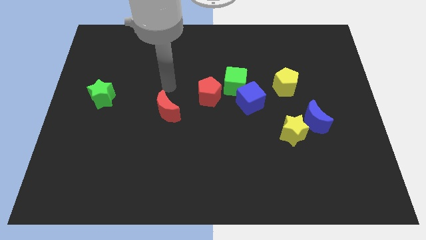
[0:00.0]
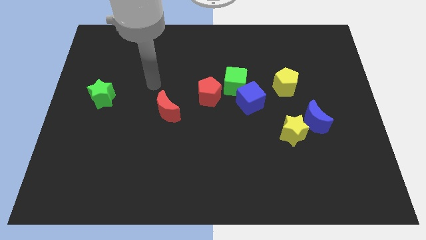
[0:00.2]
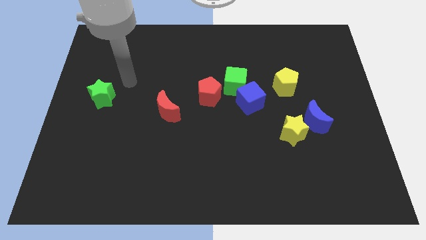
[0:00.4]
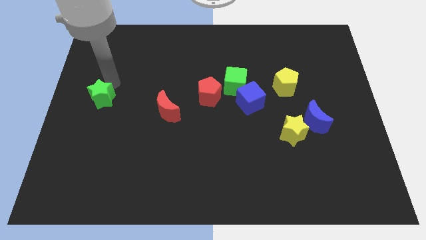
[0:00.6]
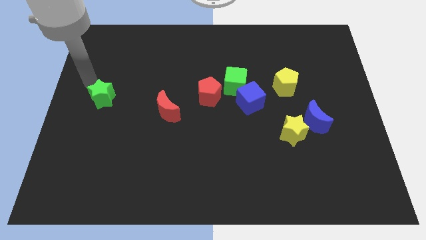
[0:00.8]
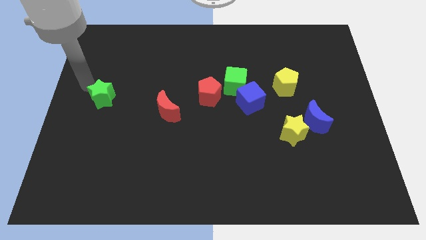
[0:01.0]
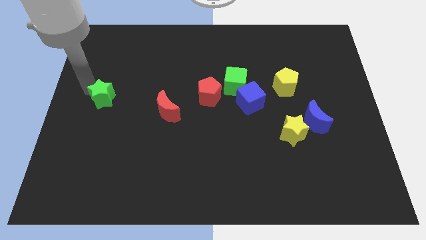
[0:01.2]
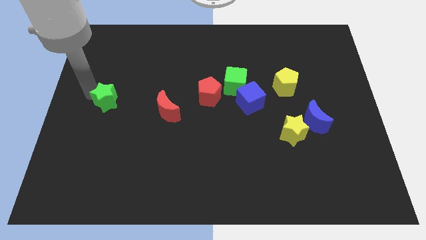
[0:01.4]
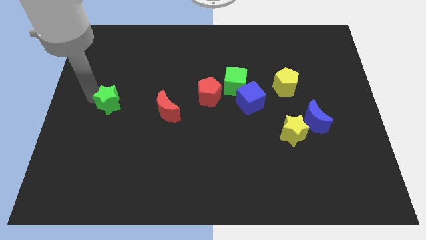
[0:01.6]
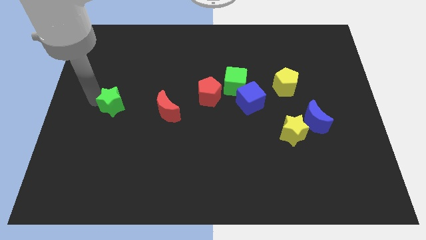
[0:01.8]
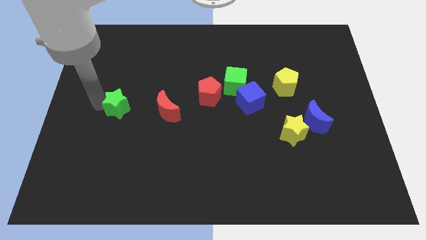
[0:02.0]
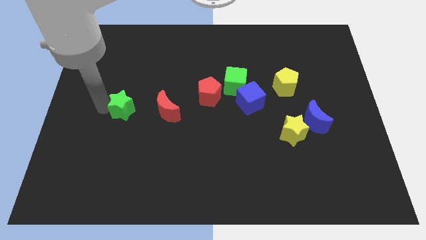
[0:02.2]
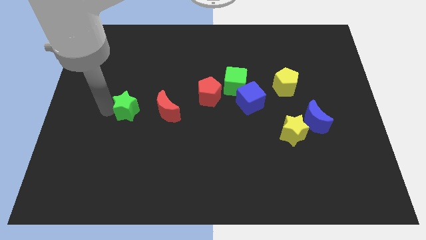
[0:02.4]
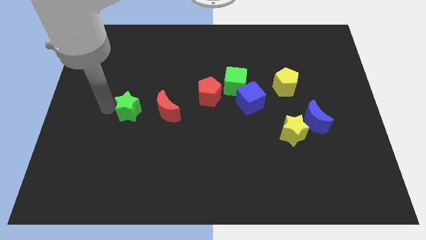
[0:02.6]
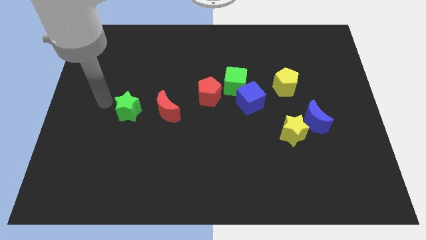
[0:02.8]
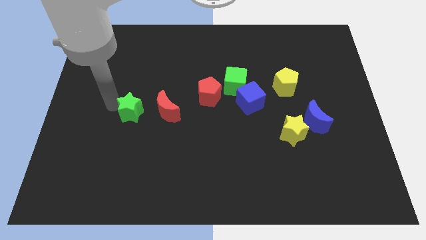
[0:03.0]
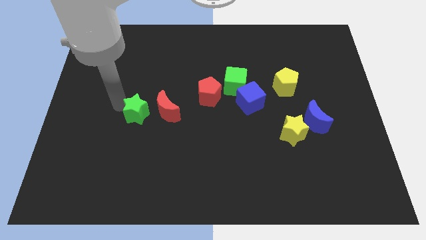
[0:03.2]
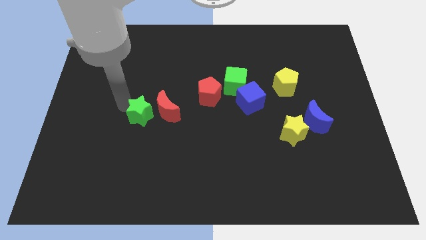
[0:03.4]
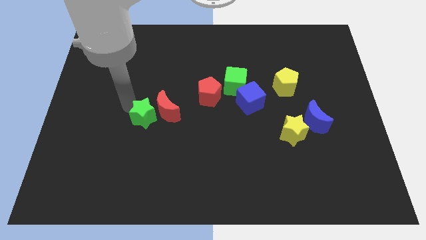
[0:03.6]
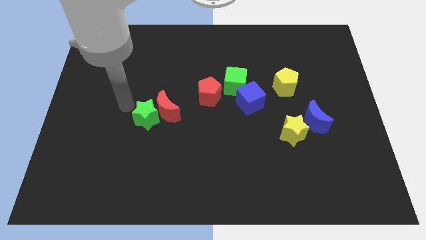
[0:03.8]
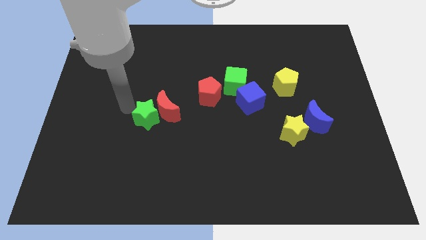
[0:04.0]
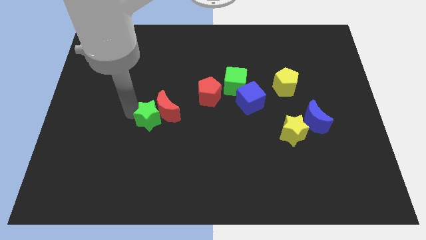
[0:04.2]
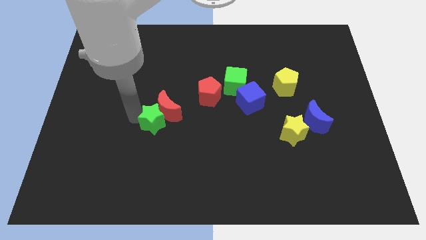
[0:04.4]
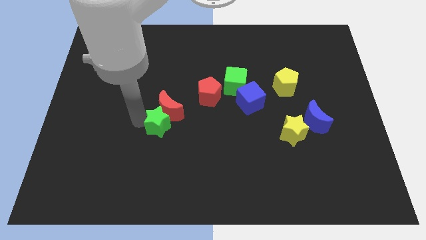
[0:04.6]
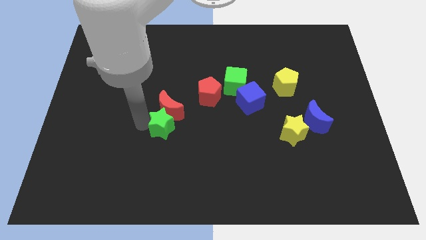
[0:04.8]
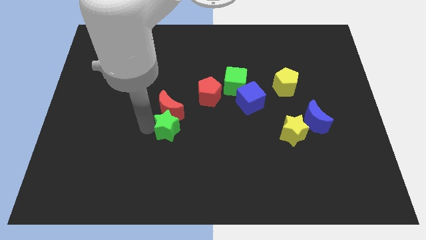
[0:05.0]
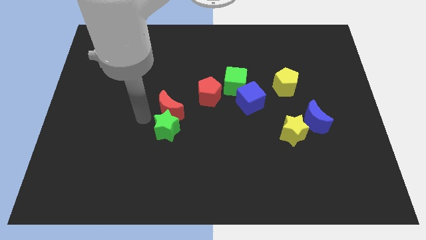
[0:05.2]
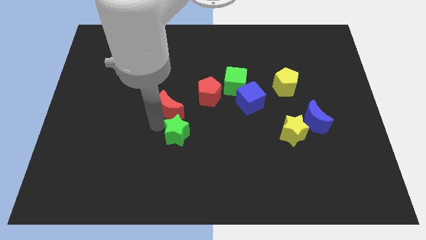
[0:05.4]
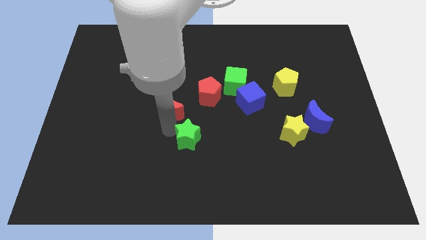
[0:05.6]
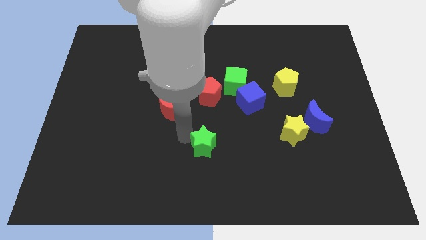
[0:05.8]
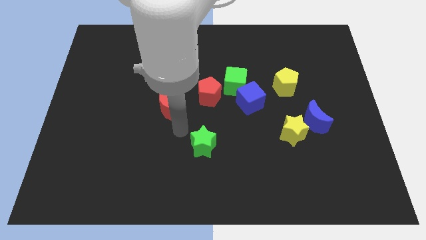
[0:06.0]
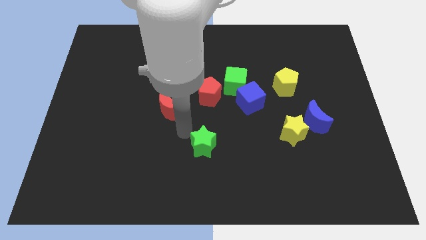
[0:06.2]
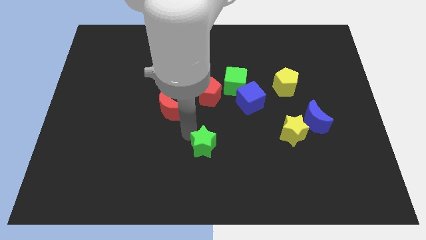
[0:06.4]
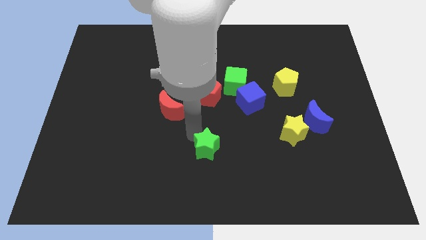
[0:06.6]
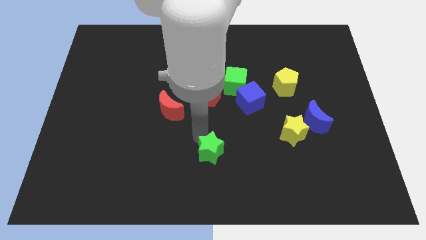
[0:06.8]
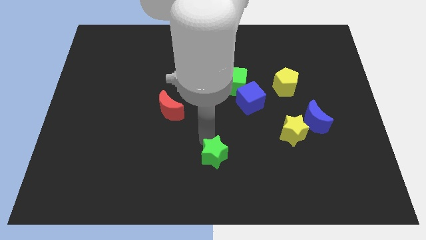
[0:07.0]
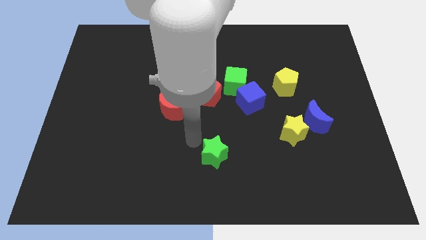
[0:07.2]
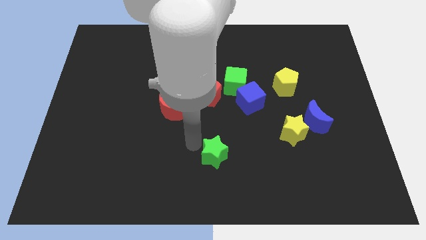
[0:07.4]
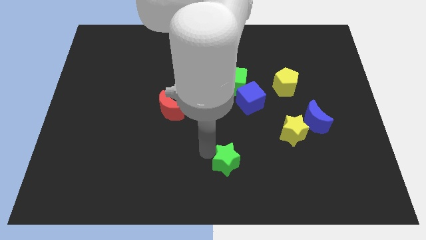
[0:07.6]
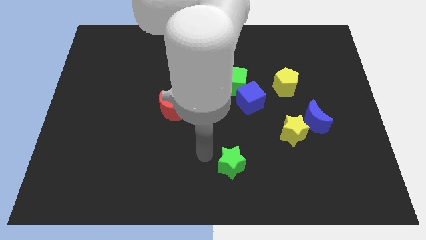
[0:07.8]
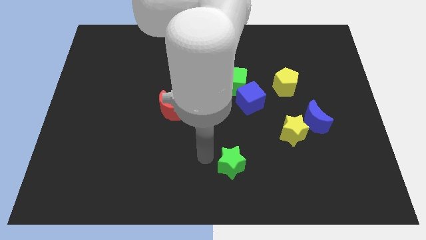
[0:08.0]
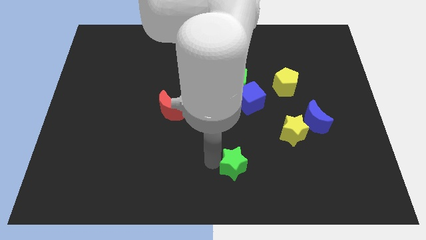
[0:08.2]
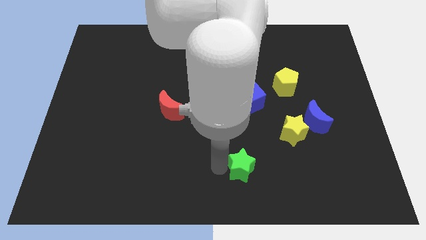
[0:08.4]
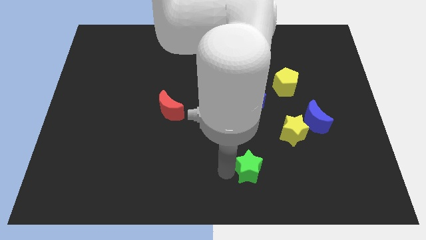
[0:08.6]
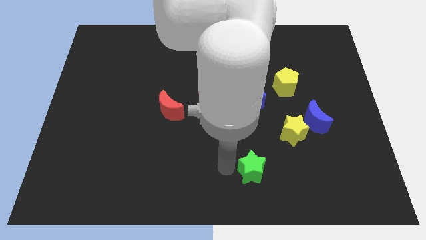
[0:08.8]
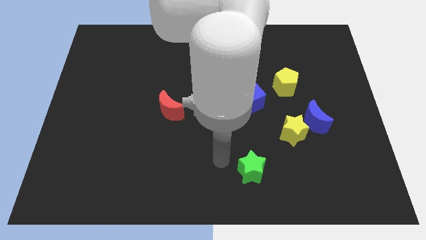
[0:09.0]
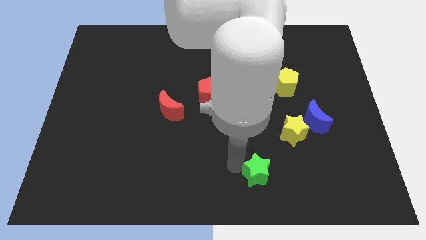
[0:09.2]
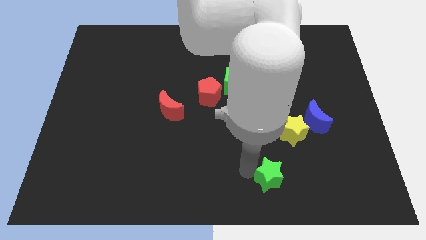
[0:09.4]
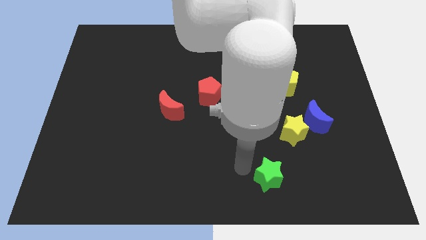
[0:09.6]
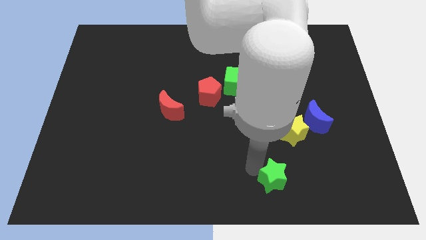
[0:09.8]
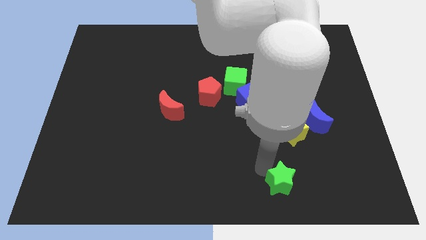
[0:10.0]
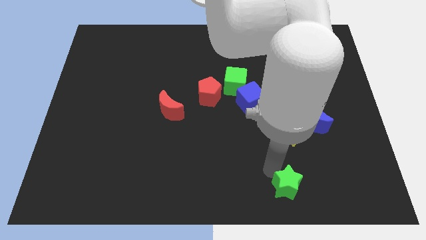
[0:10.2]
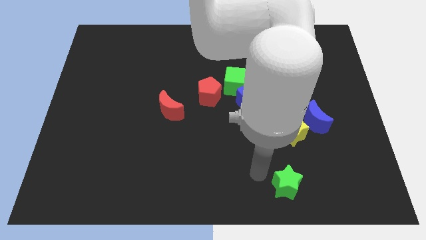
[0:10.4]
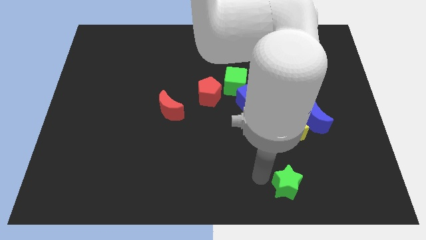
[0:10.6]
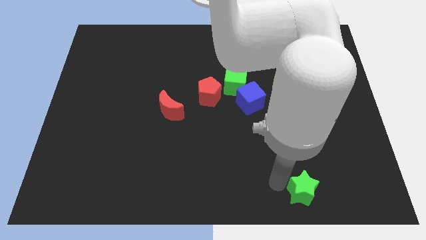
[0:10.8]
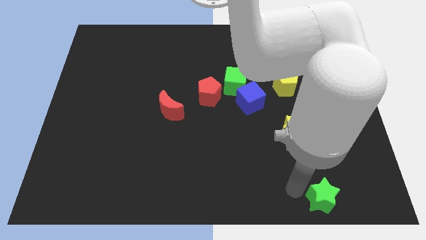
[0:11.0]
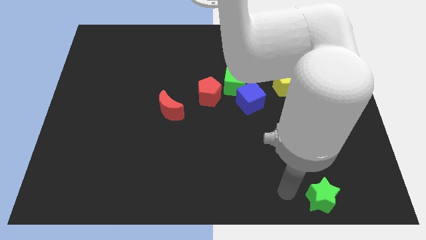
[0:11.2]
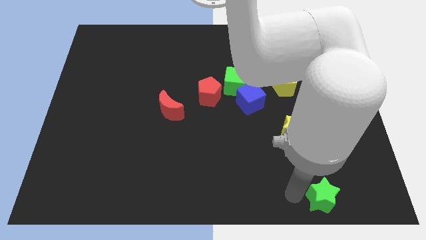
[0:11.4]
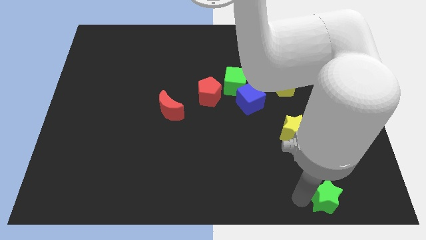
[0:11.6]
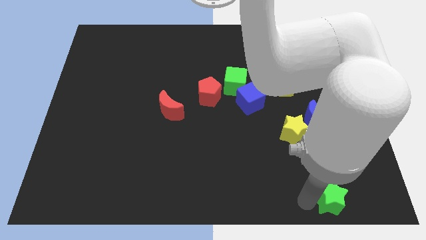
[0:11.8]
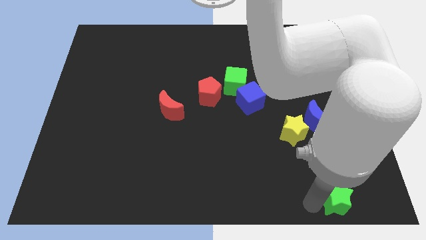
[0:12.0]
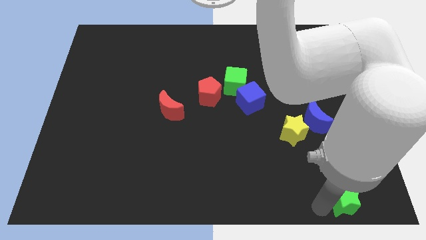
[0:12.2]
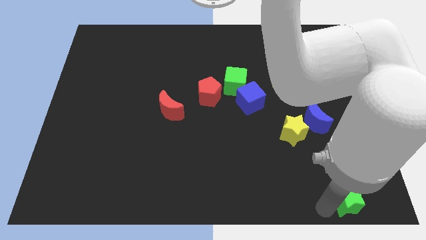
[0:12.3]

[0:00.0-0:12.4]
slide the green star to the lower right corner
